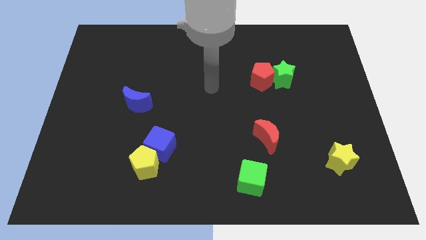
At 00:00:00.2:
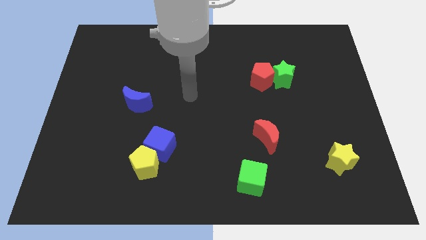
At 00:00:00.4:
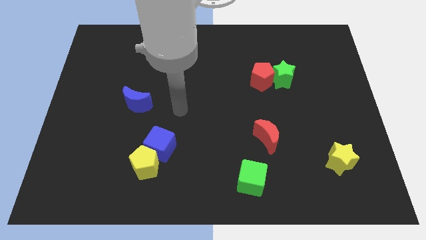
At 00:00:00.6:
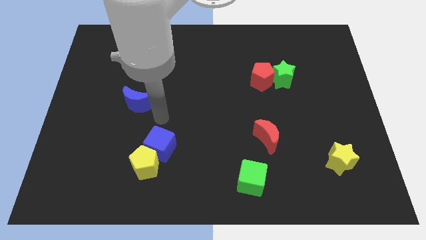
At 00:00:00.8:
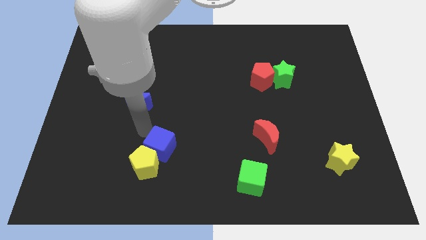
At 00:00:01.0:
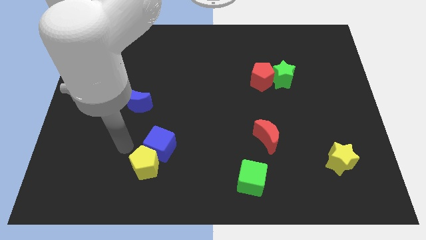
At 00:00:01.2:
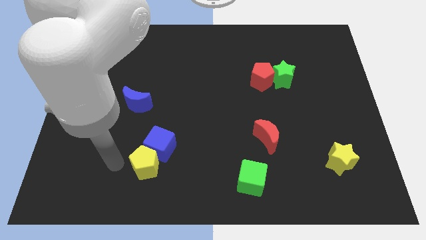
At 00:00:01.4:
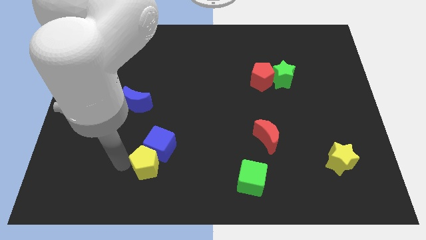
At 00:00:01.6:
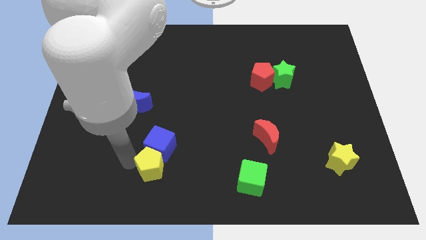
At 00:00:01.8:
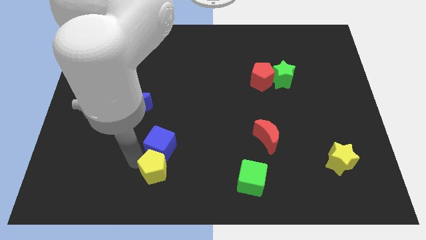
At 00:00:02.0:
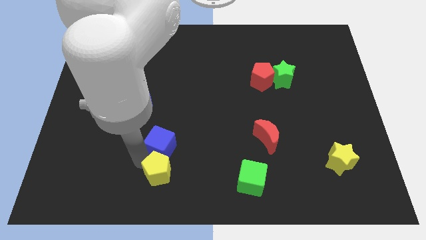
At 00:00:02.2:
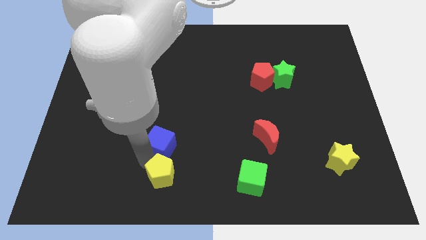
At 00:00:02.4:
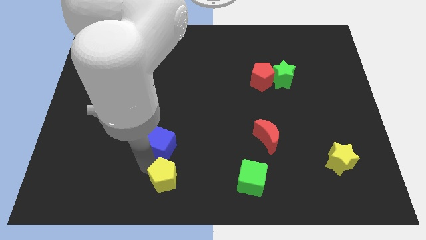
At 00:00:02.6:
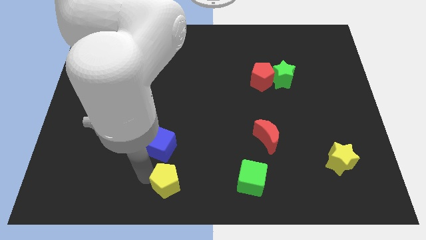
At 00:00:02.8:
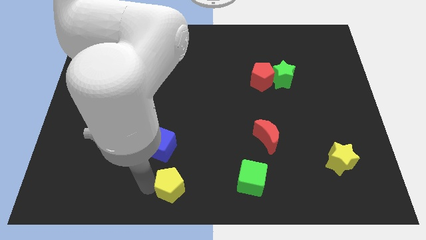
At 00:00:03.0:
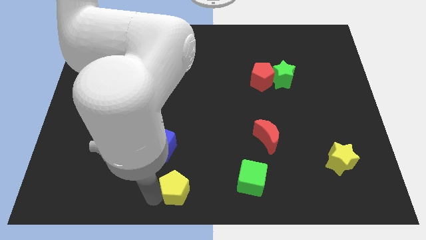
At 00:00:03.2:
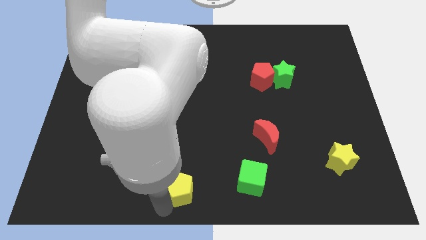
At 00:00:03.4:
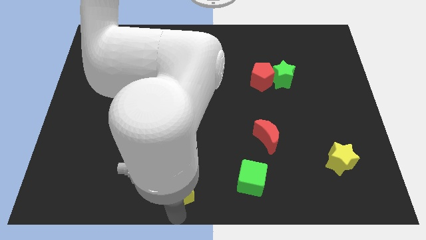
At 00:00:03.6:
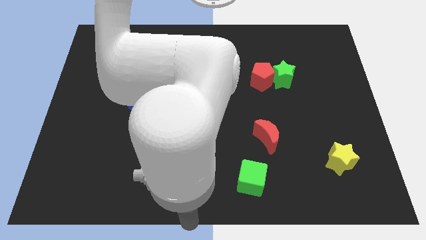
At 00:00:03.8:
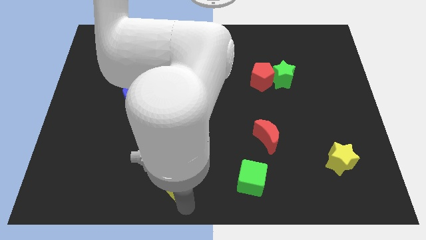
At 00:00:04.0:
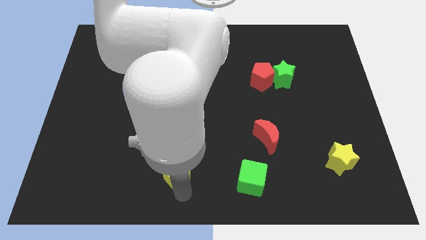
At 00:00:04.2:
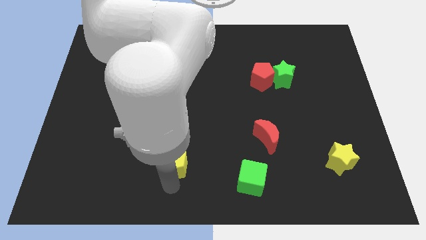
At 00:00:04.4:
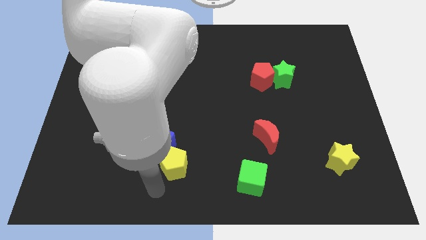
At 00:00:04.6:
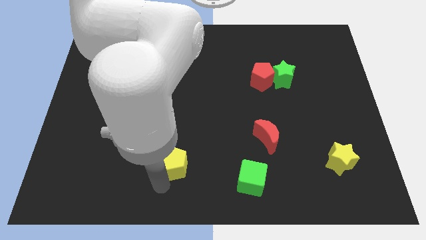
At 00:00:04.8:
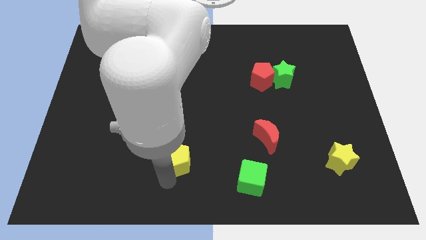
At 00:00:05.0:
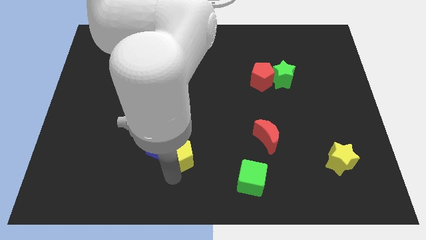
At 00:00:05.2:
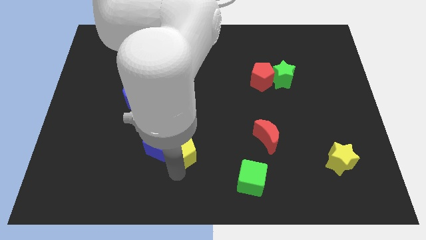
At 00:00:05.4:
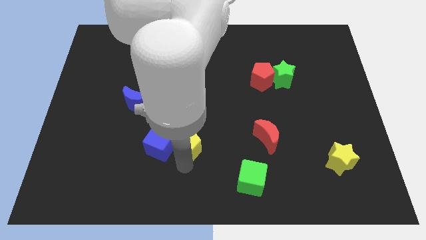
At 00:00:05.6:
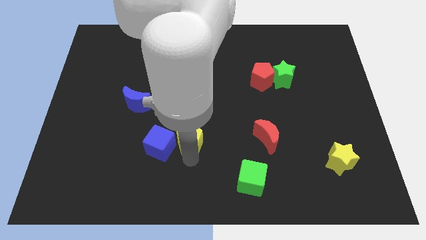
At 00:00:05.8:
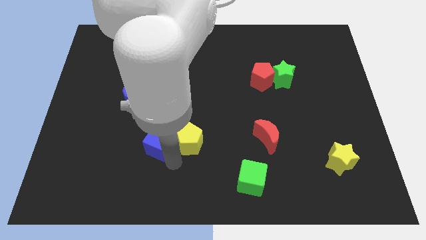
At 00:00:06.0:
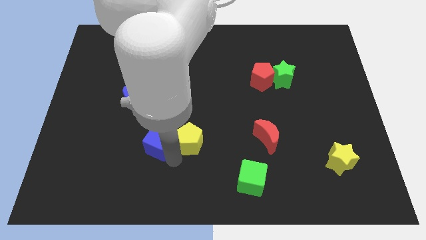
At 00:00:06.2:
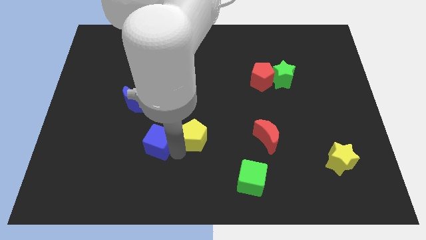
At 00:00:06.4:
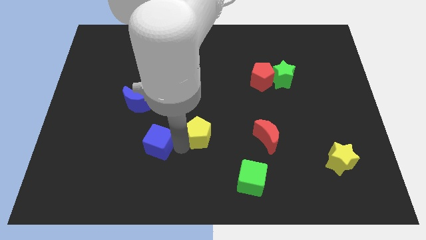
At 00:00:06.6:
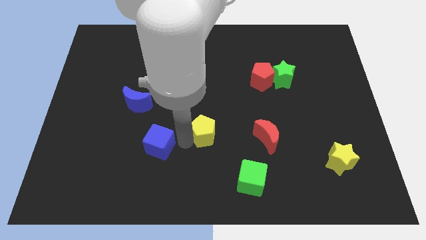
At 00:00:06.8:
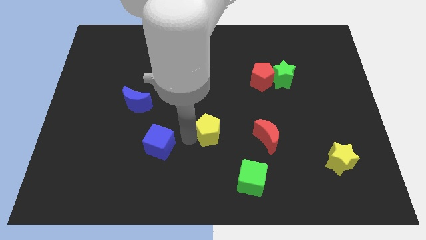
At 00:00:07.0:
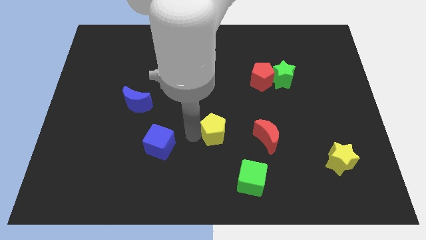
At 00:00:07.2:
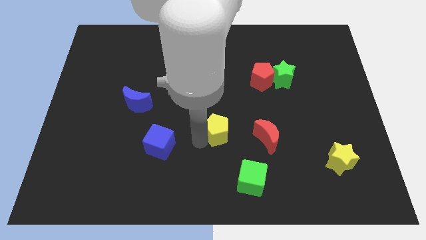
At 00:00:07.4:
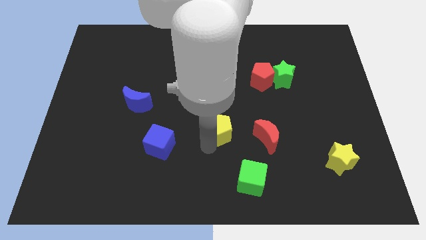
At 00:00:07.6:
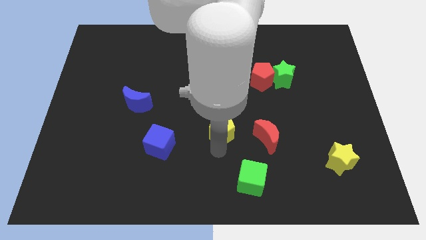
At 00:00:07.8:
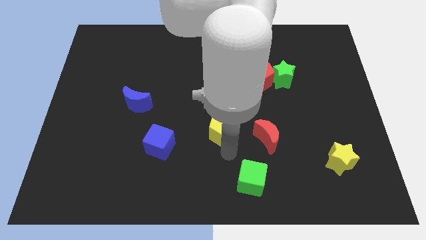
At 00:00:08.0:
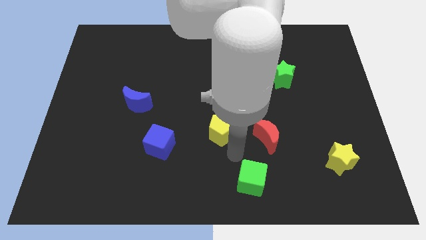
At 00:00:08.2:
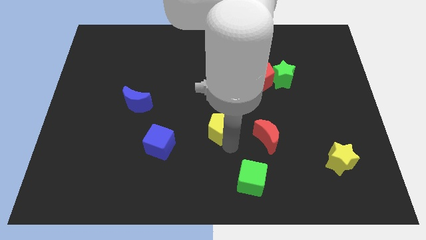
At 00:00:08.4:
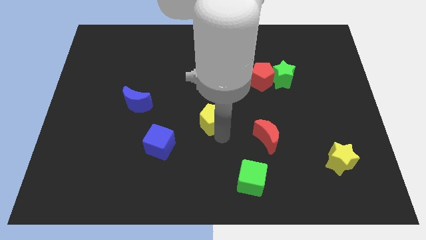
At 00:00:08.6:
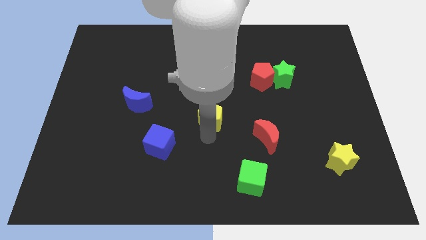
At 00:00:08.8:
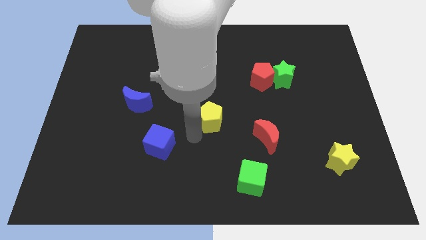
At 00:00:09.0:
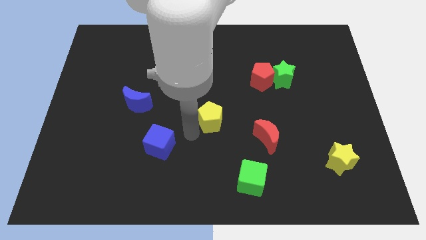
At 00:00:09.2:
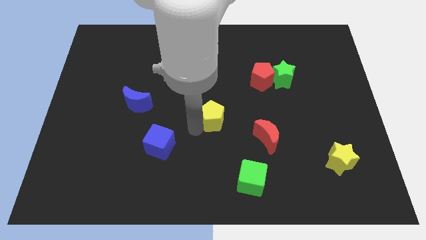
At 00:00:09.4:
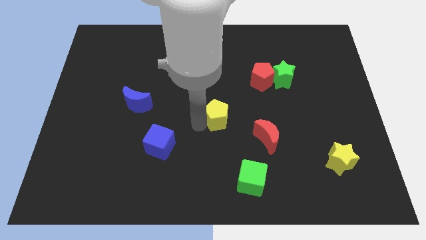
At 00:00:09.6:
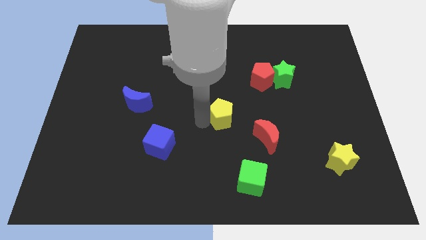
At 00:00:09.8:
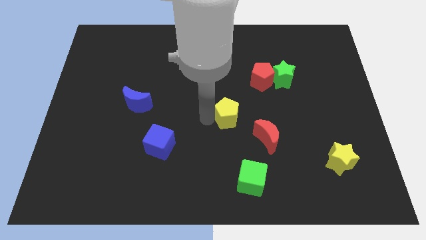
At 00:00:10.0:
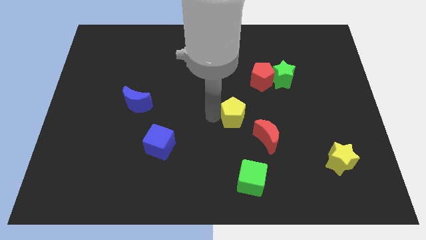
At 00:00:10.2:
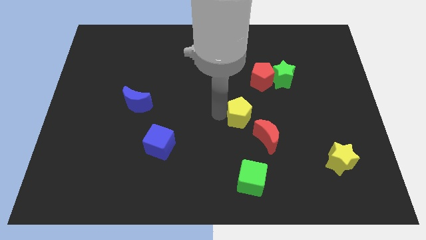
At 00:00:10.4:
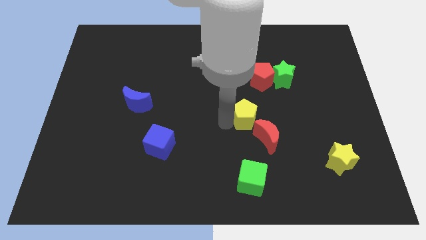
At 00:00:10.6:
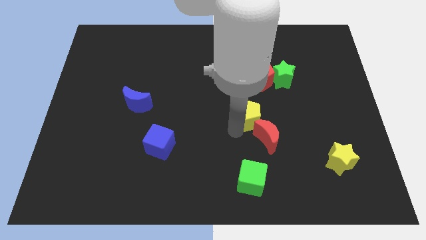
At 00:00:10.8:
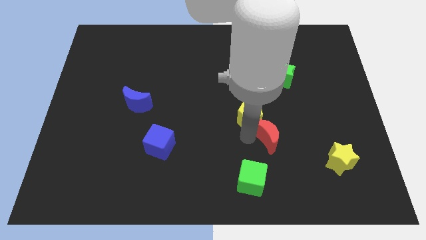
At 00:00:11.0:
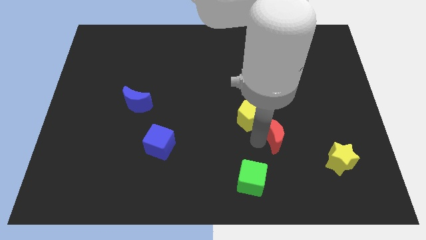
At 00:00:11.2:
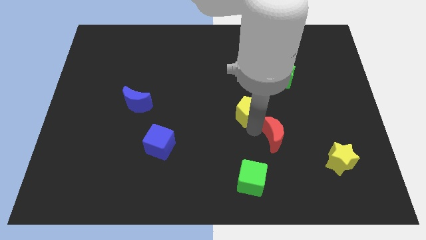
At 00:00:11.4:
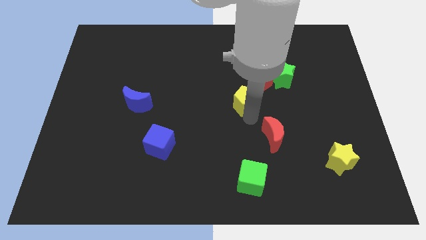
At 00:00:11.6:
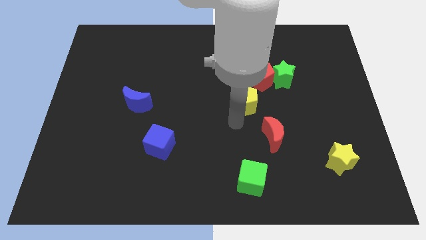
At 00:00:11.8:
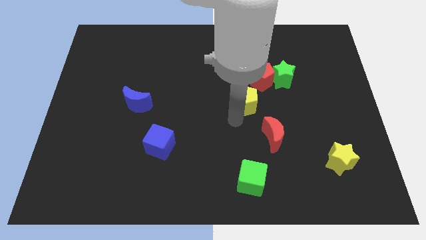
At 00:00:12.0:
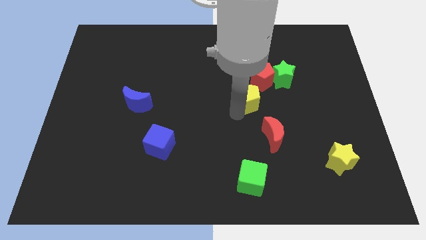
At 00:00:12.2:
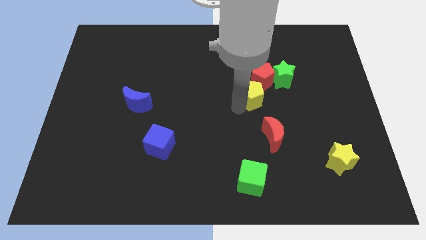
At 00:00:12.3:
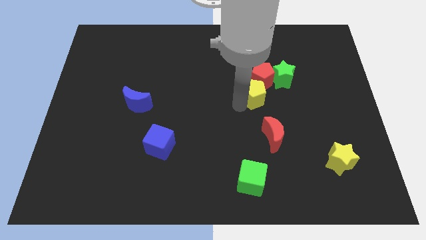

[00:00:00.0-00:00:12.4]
slide the yellow pentagon next to the red pentagon

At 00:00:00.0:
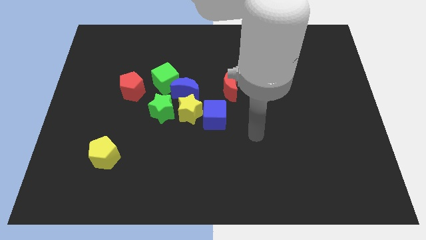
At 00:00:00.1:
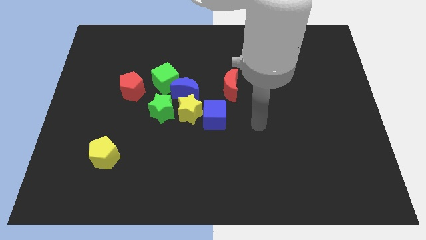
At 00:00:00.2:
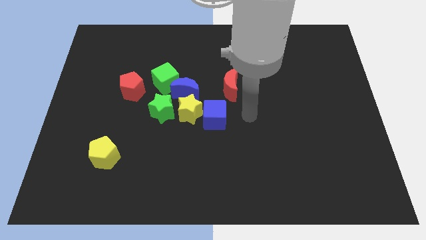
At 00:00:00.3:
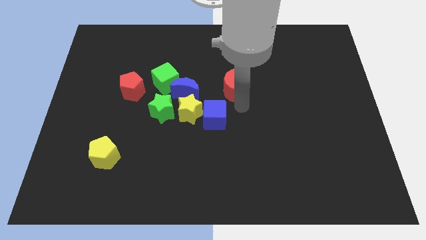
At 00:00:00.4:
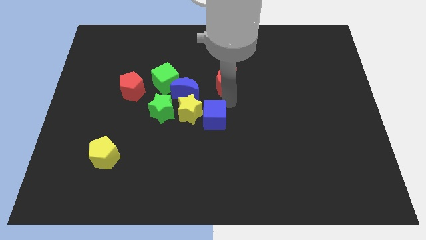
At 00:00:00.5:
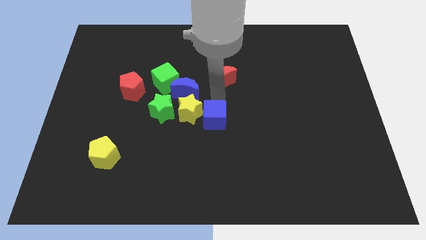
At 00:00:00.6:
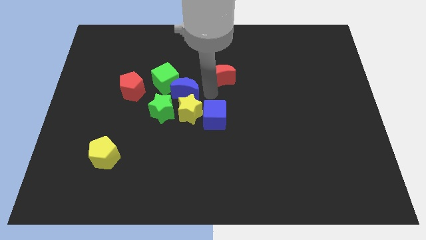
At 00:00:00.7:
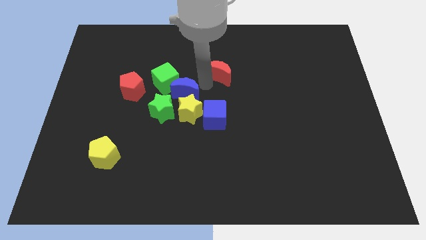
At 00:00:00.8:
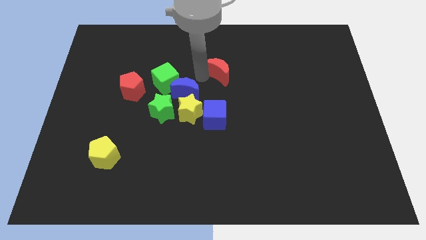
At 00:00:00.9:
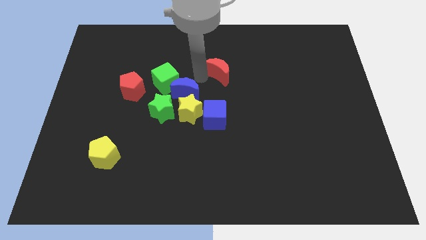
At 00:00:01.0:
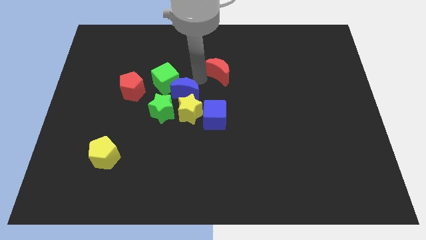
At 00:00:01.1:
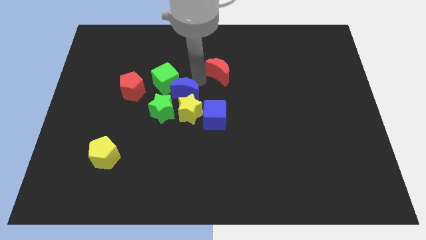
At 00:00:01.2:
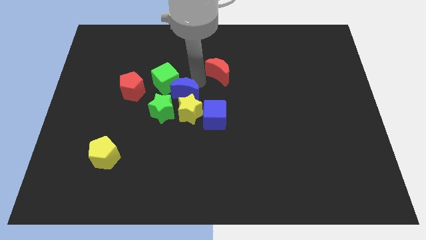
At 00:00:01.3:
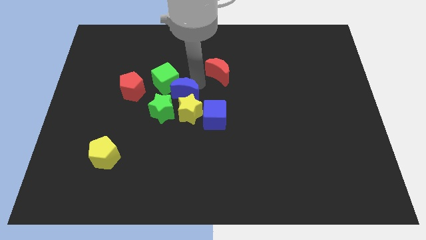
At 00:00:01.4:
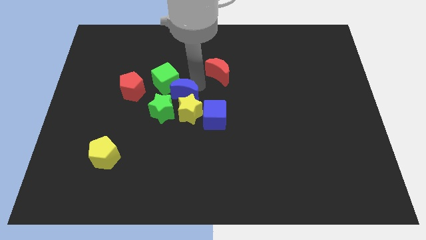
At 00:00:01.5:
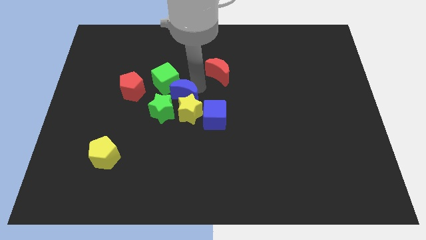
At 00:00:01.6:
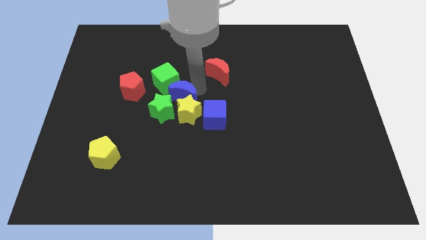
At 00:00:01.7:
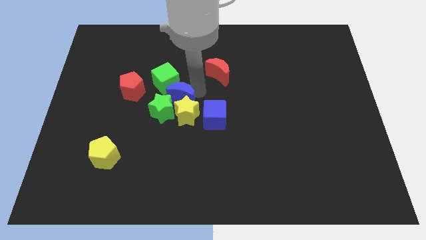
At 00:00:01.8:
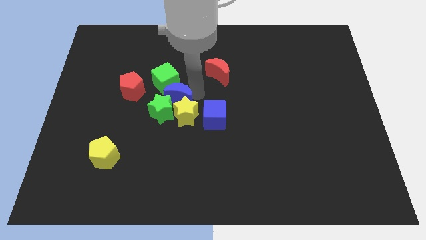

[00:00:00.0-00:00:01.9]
move the blue moon next to the green star
